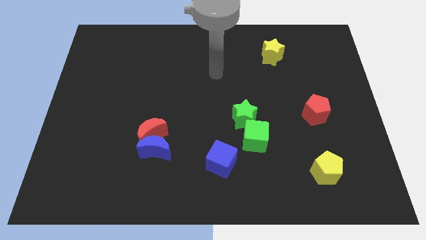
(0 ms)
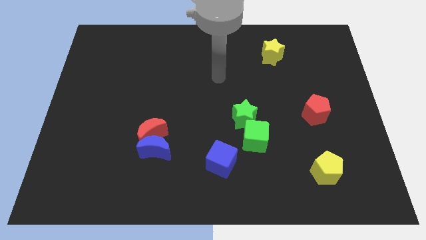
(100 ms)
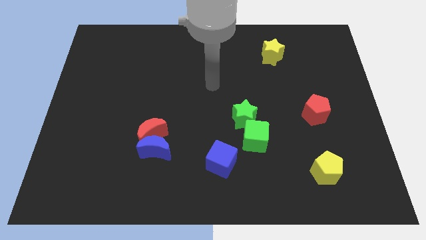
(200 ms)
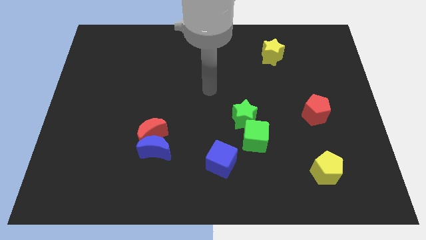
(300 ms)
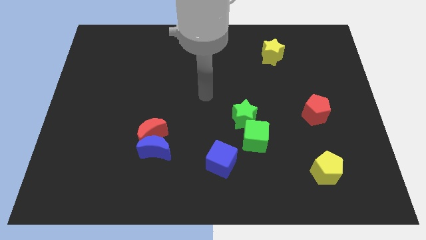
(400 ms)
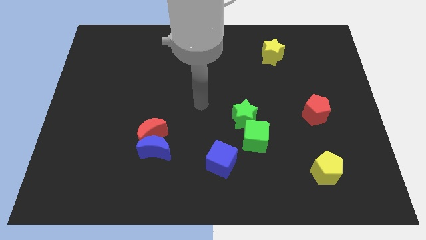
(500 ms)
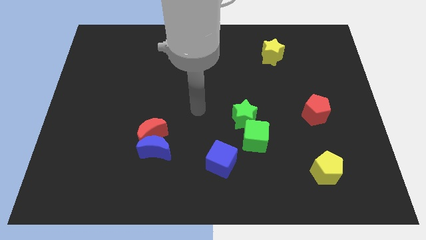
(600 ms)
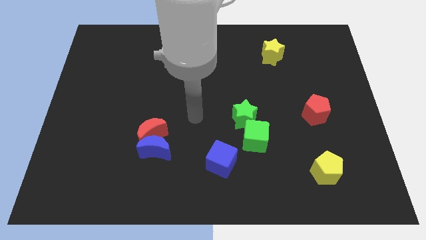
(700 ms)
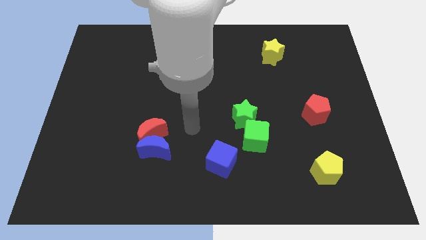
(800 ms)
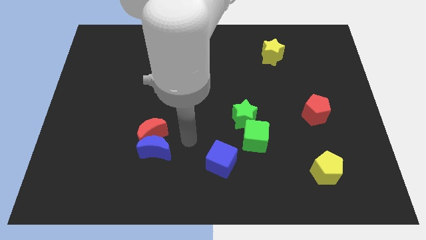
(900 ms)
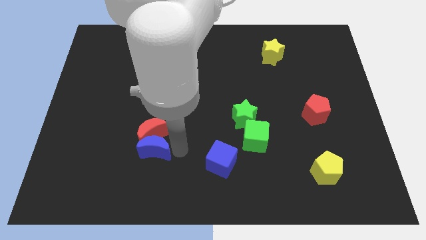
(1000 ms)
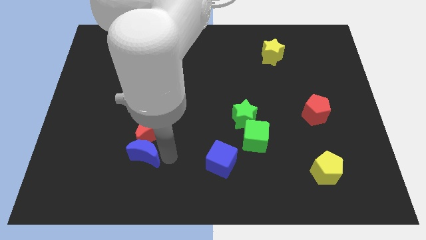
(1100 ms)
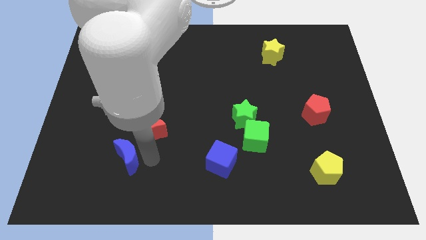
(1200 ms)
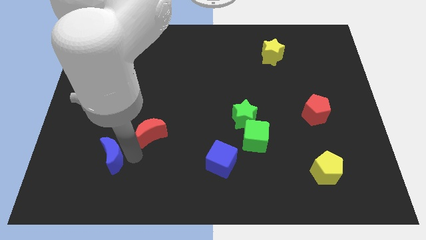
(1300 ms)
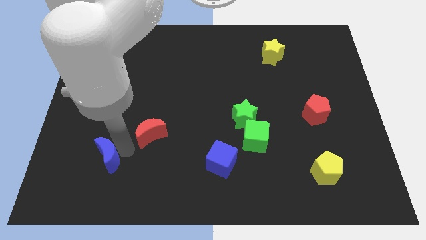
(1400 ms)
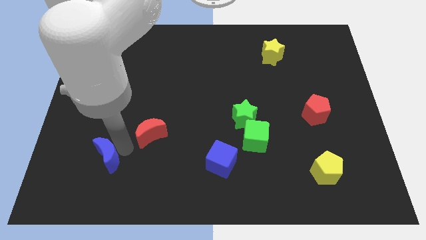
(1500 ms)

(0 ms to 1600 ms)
separate the red moon from the blue moon

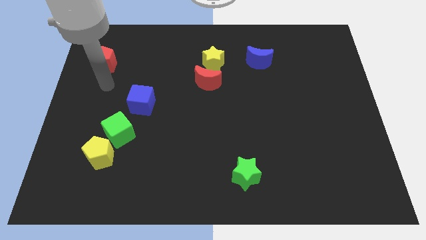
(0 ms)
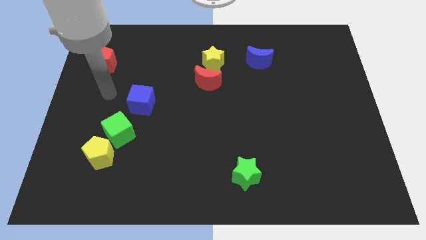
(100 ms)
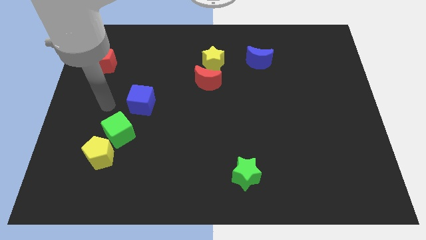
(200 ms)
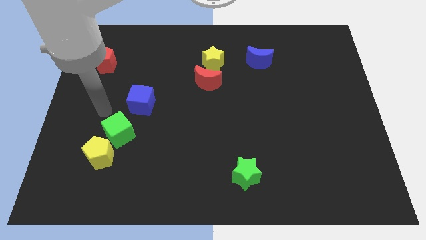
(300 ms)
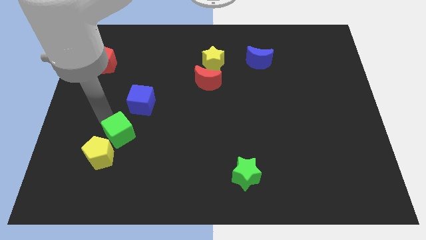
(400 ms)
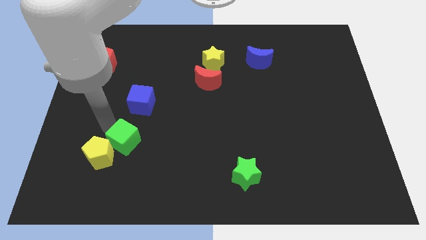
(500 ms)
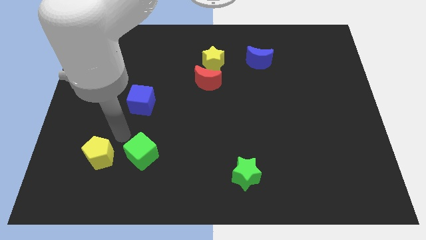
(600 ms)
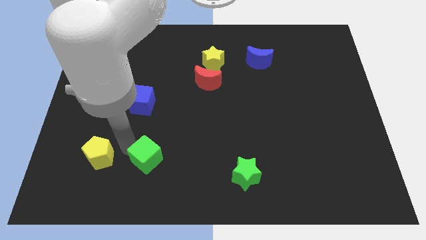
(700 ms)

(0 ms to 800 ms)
move the yellow pentagon away from the green cube

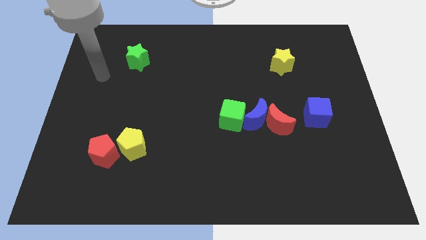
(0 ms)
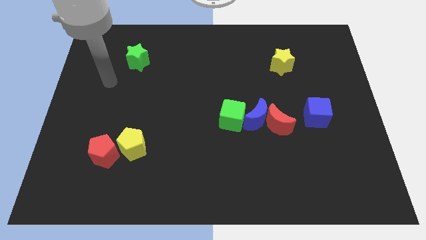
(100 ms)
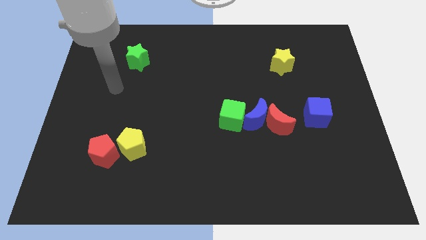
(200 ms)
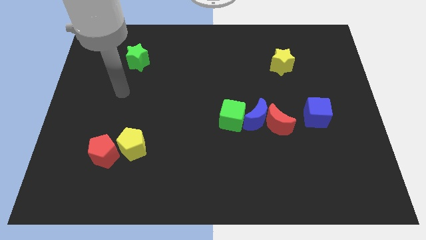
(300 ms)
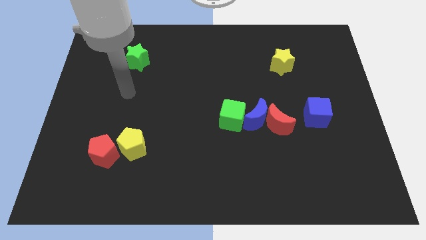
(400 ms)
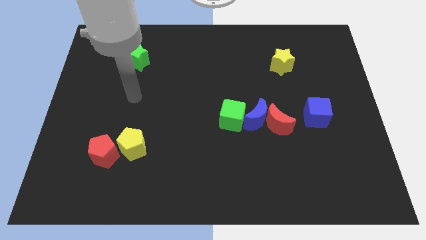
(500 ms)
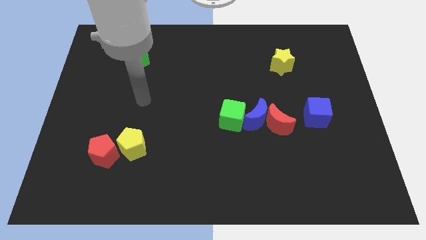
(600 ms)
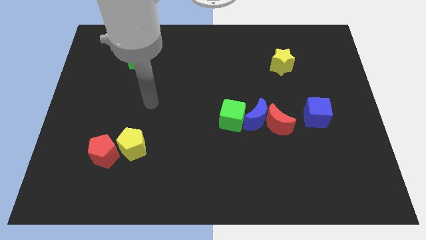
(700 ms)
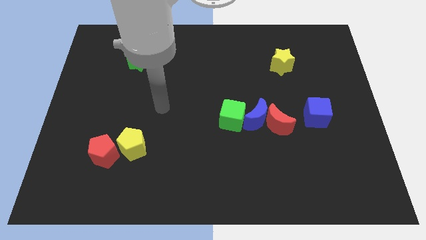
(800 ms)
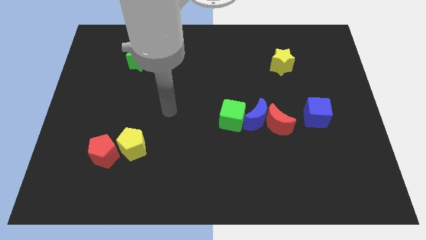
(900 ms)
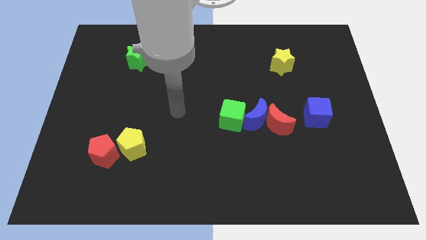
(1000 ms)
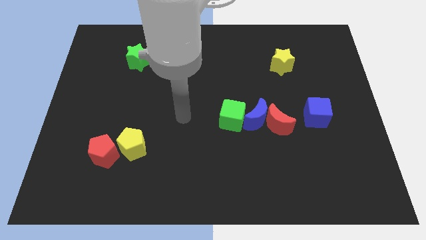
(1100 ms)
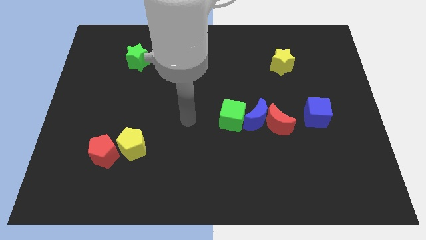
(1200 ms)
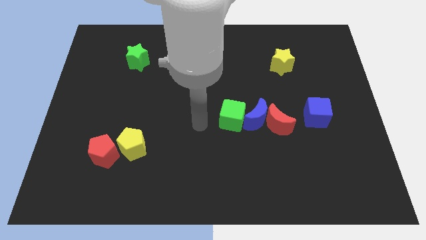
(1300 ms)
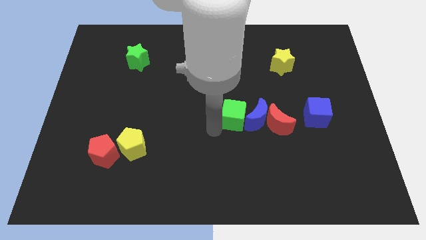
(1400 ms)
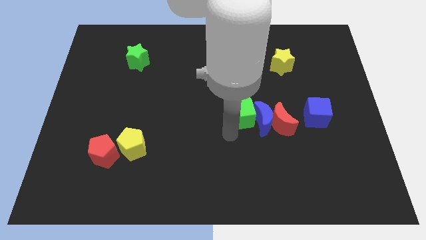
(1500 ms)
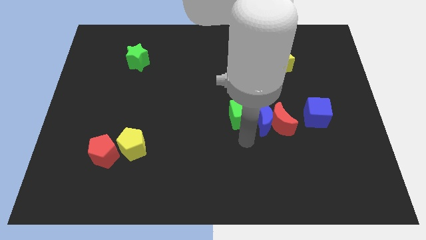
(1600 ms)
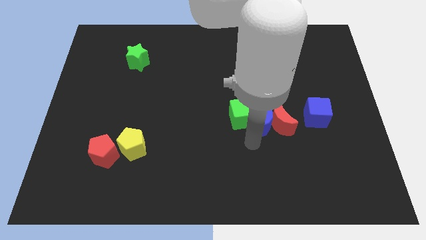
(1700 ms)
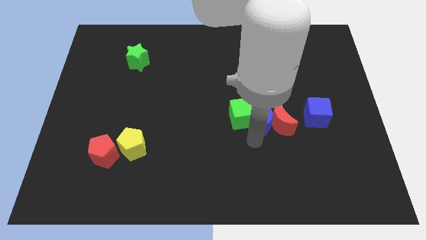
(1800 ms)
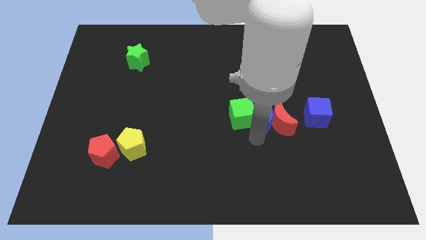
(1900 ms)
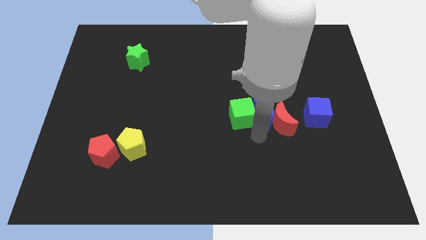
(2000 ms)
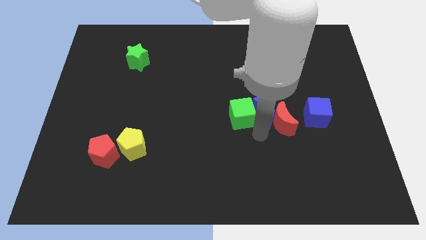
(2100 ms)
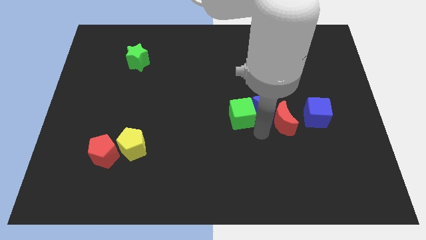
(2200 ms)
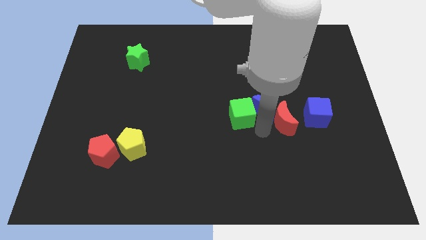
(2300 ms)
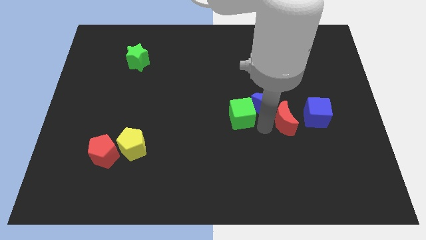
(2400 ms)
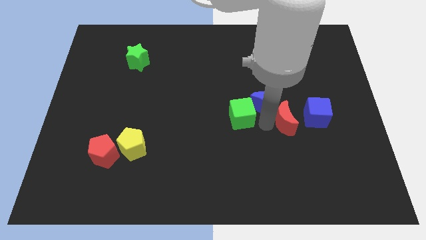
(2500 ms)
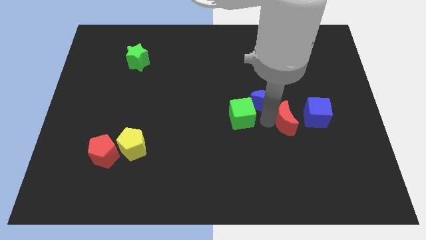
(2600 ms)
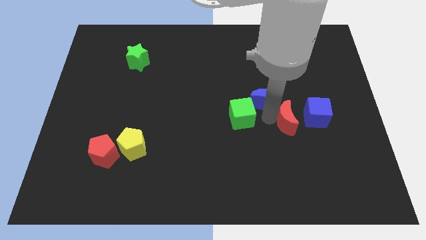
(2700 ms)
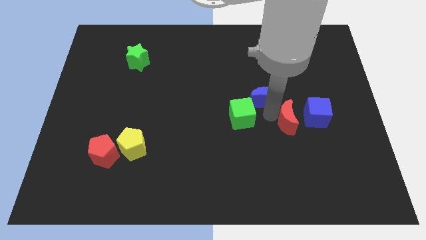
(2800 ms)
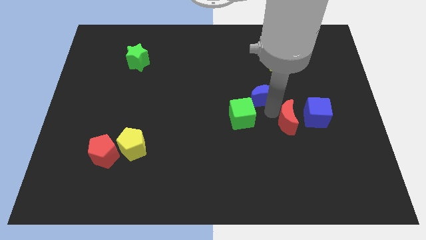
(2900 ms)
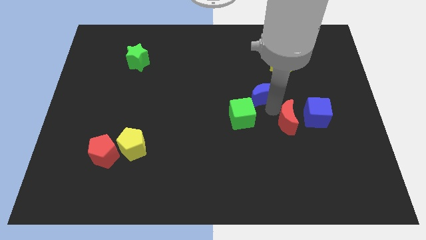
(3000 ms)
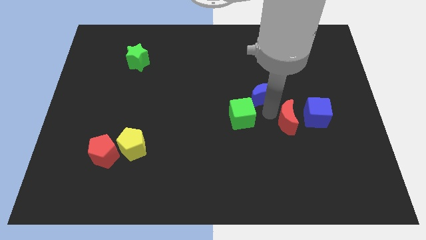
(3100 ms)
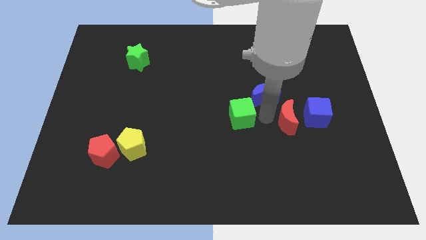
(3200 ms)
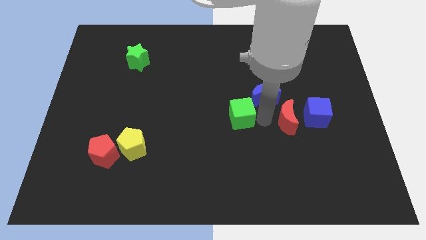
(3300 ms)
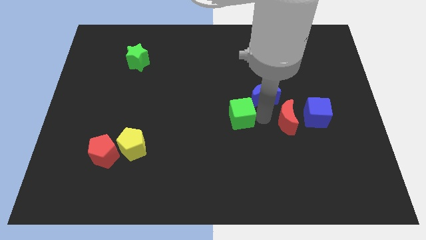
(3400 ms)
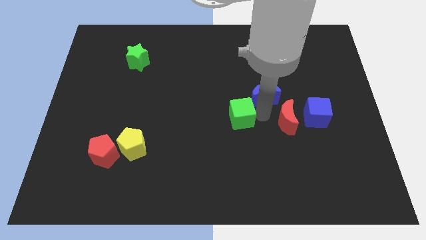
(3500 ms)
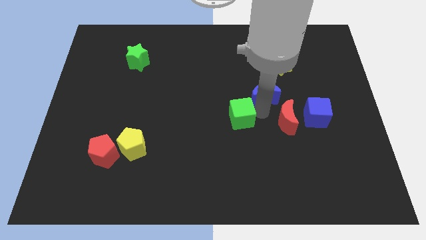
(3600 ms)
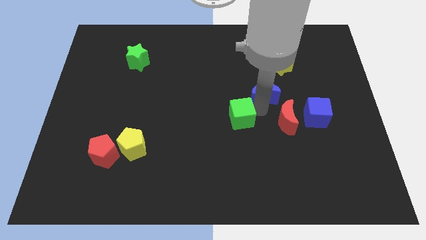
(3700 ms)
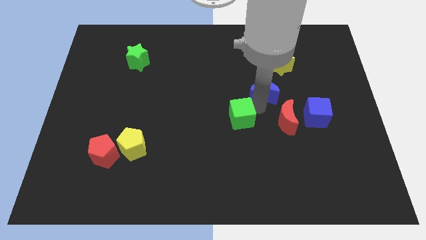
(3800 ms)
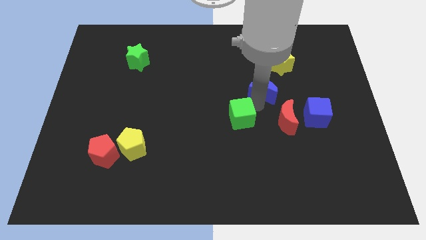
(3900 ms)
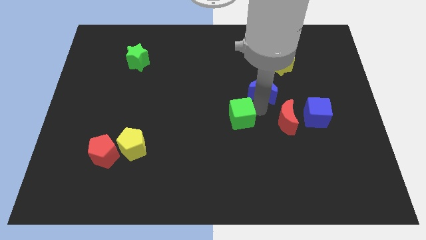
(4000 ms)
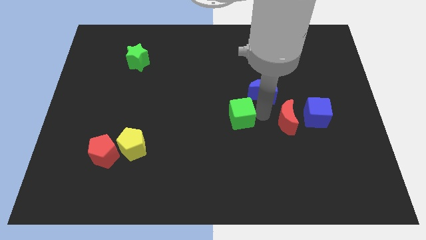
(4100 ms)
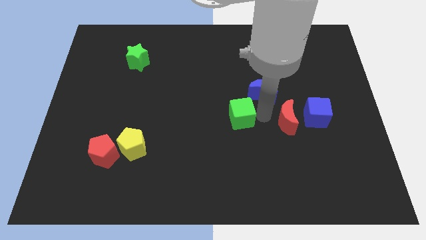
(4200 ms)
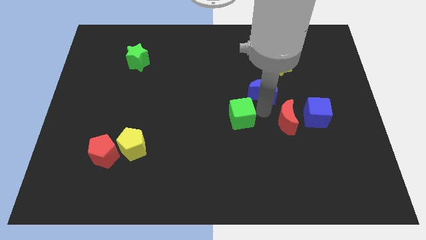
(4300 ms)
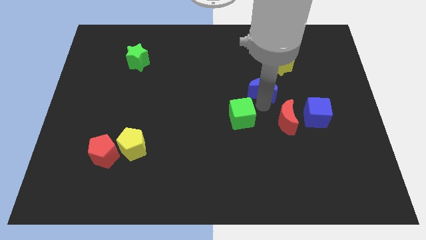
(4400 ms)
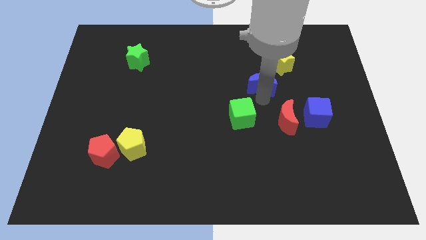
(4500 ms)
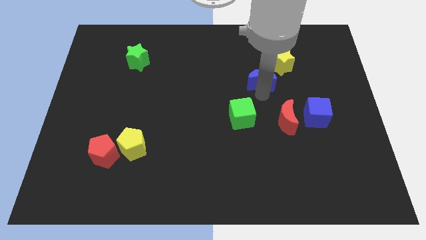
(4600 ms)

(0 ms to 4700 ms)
move the blue moon away from the red moon and green cube

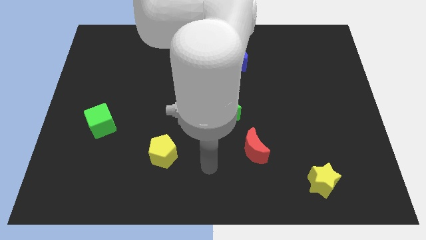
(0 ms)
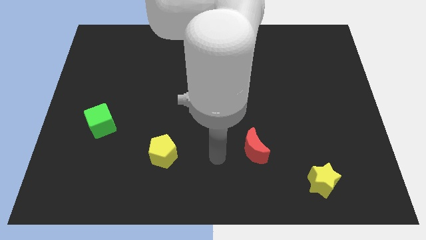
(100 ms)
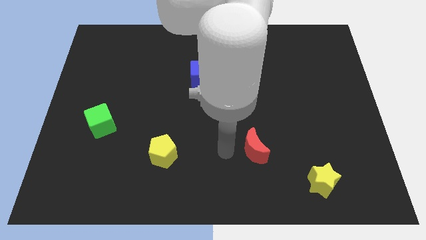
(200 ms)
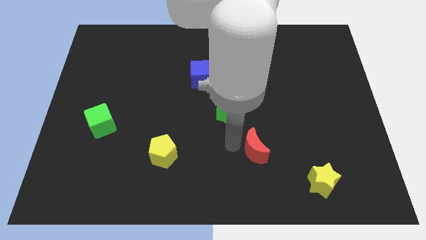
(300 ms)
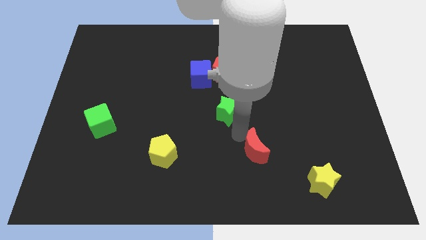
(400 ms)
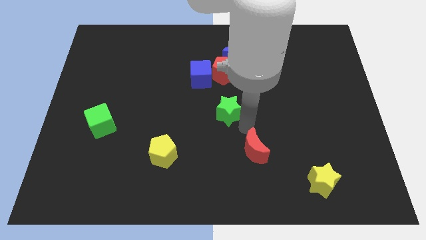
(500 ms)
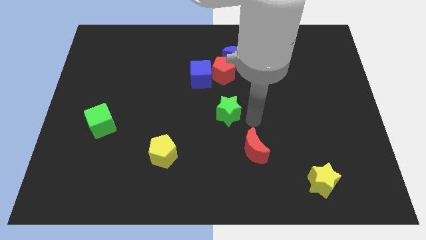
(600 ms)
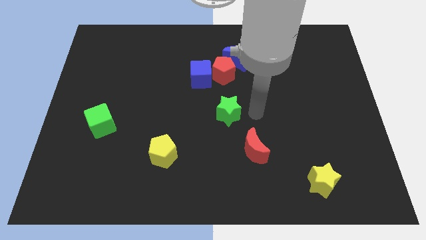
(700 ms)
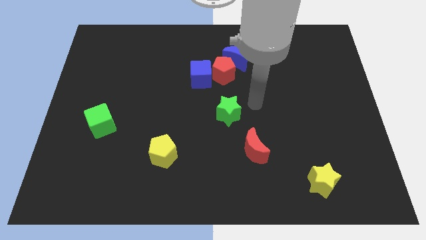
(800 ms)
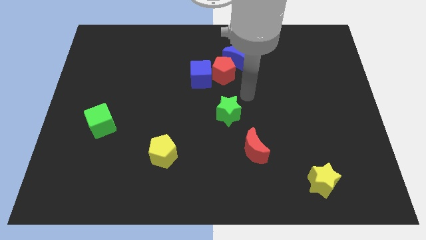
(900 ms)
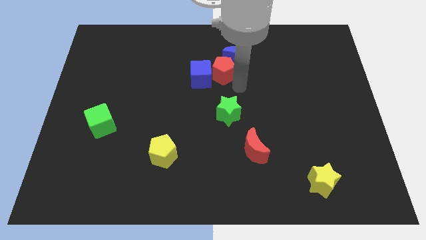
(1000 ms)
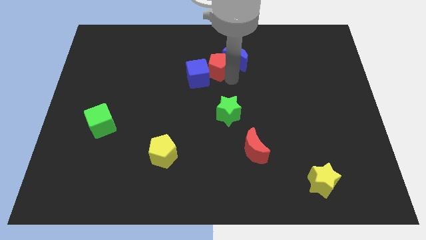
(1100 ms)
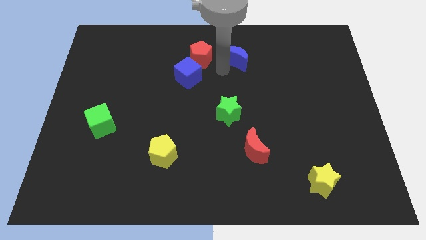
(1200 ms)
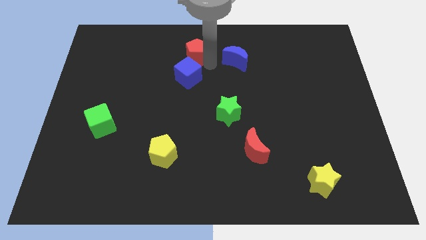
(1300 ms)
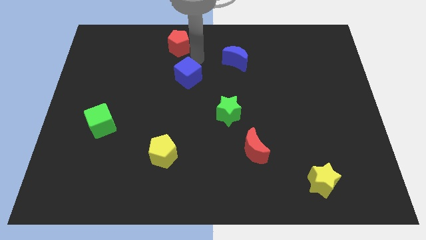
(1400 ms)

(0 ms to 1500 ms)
pull the blue cube apart from the red pentagon

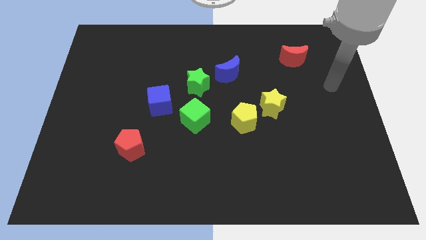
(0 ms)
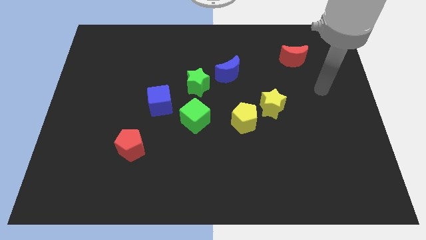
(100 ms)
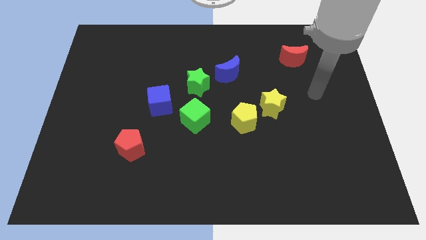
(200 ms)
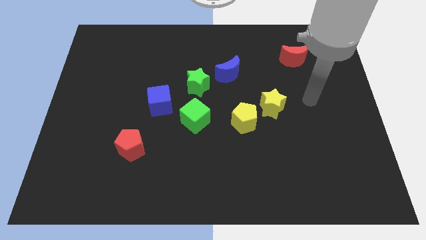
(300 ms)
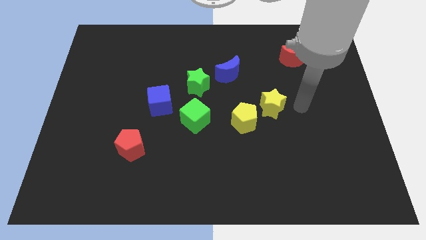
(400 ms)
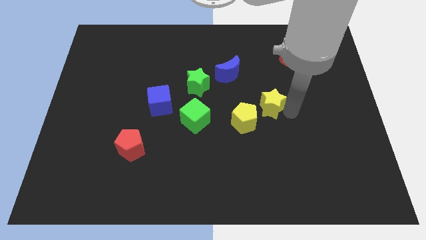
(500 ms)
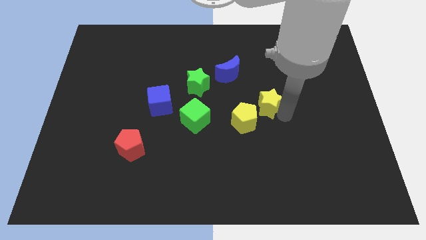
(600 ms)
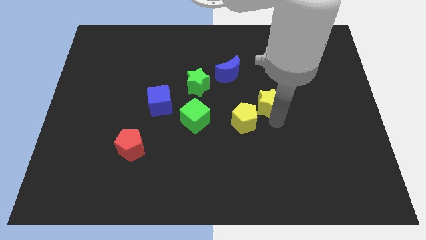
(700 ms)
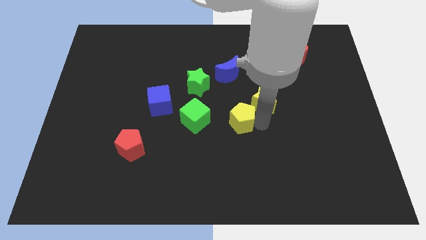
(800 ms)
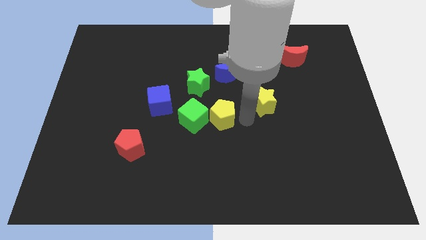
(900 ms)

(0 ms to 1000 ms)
pull the yellow star apart from the yellow pentagon
